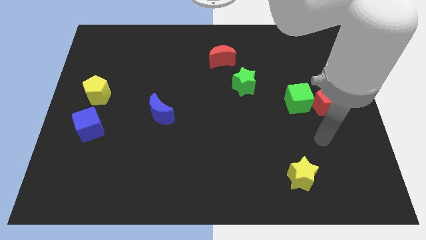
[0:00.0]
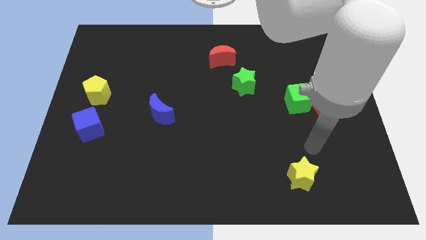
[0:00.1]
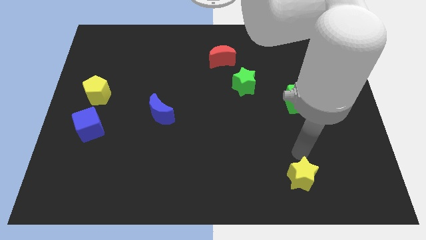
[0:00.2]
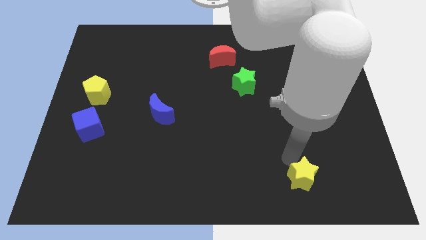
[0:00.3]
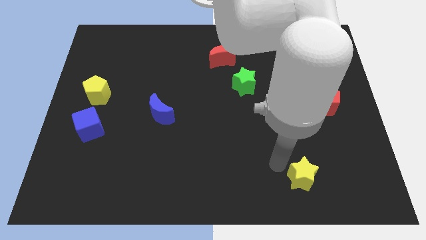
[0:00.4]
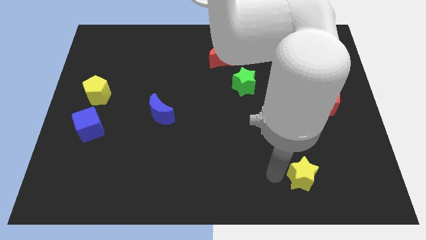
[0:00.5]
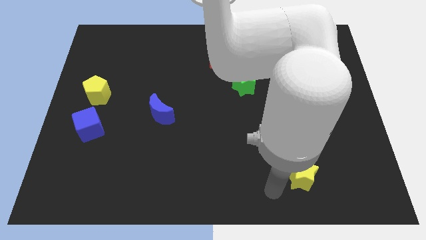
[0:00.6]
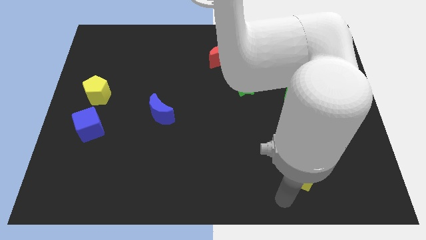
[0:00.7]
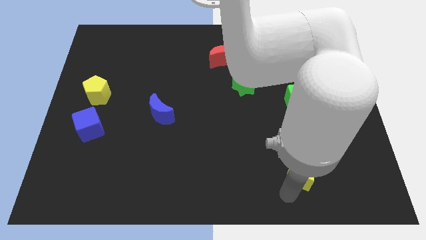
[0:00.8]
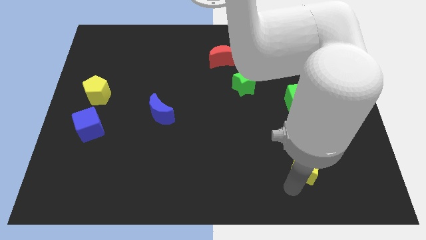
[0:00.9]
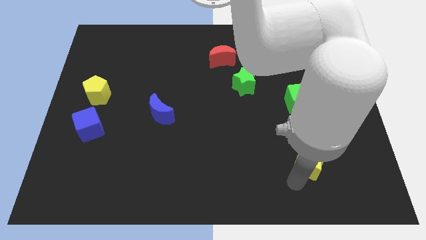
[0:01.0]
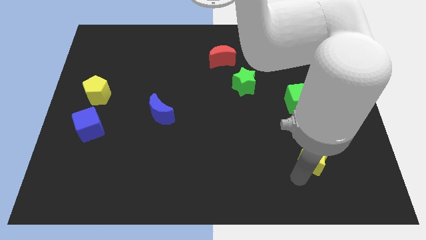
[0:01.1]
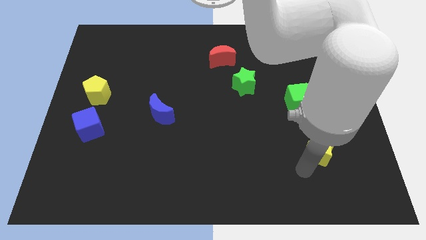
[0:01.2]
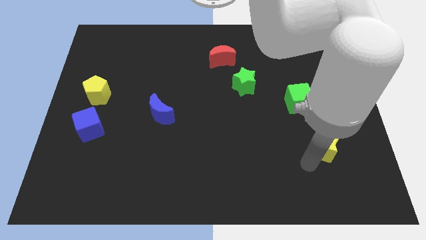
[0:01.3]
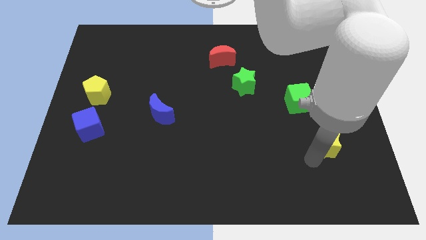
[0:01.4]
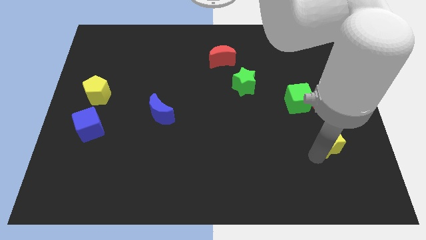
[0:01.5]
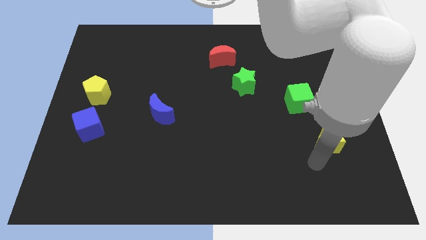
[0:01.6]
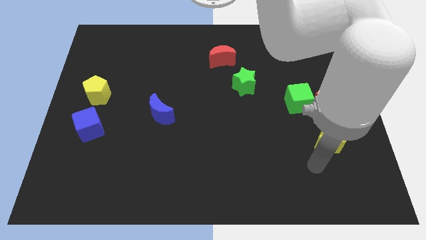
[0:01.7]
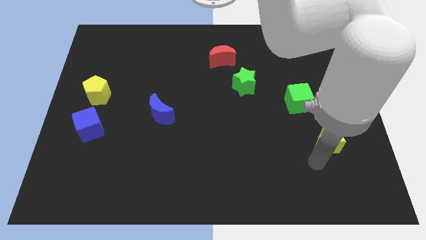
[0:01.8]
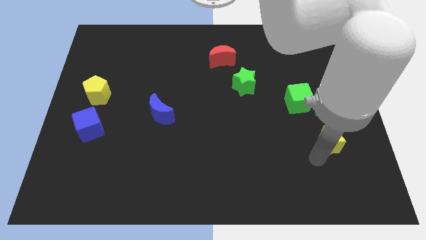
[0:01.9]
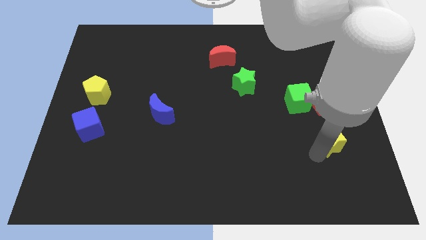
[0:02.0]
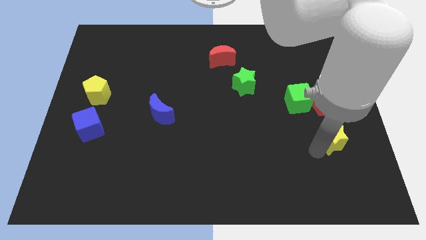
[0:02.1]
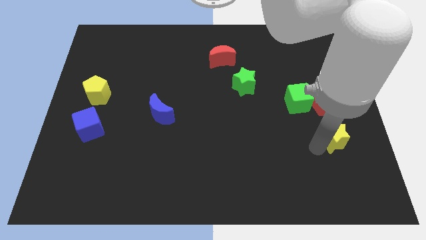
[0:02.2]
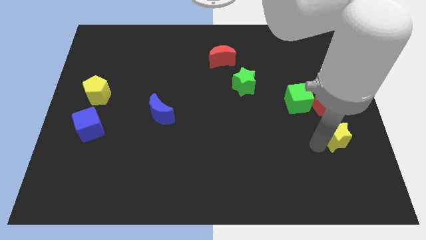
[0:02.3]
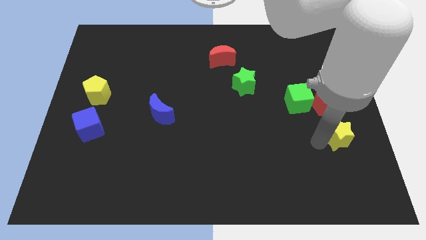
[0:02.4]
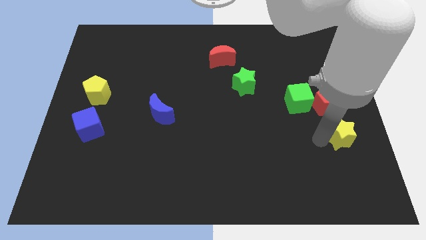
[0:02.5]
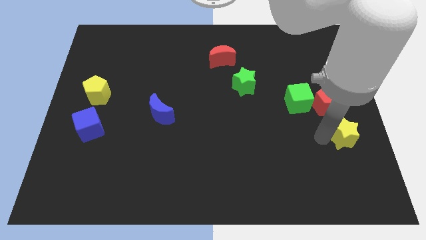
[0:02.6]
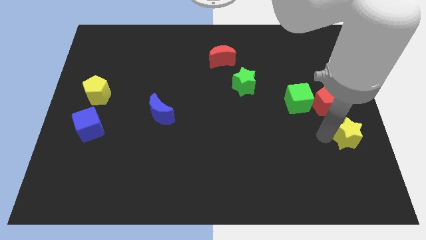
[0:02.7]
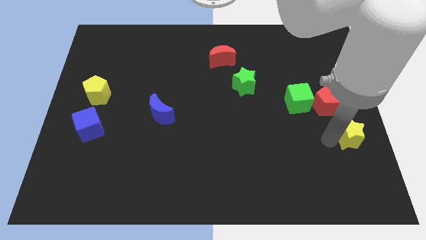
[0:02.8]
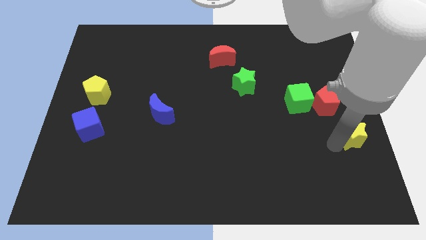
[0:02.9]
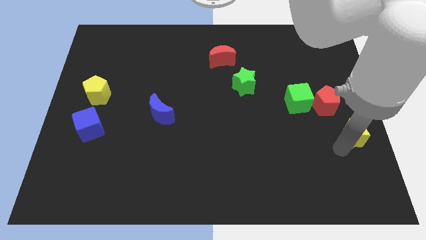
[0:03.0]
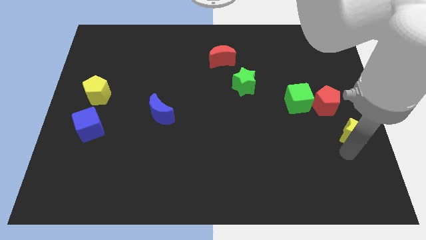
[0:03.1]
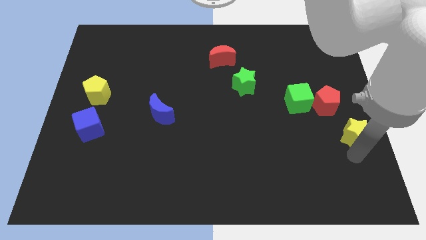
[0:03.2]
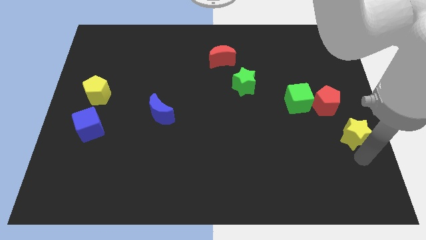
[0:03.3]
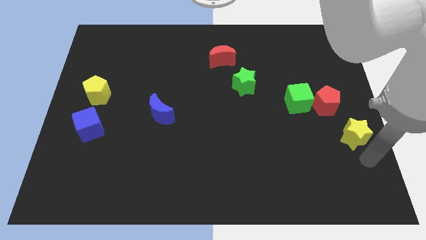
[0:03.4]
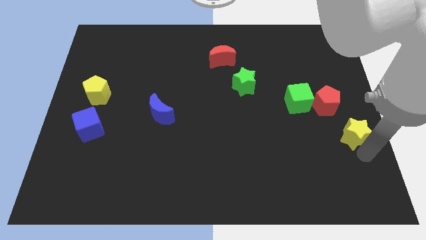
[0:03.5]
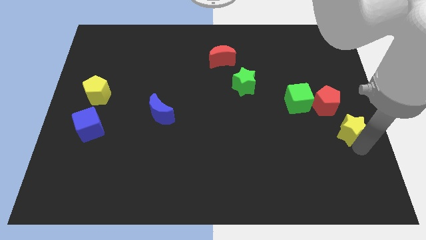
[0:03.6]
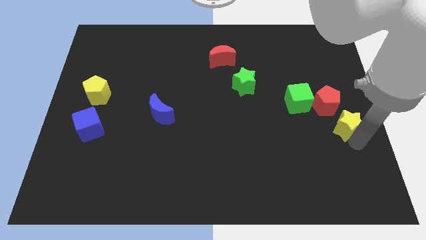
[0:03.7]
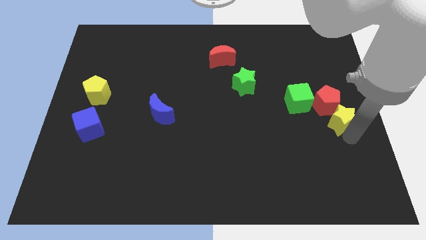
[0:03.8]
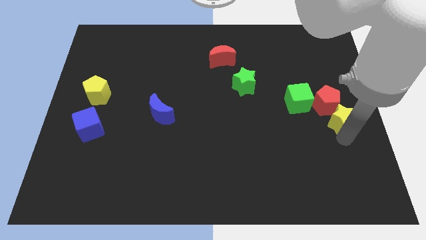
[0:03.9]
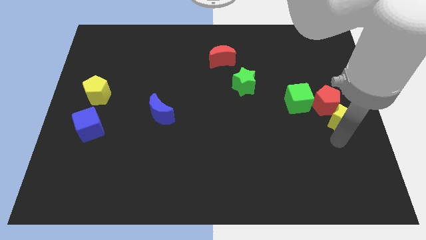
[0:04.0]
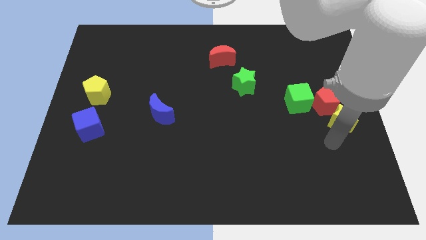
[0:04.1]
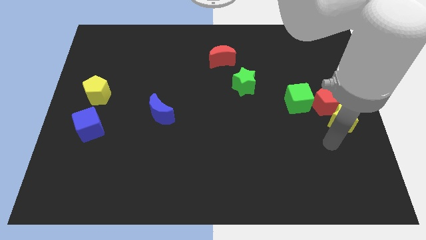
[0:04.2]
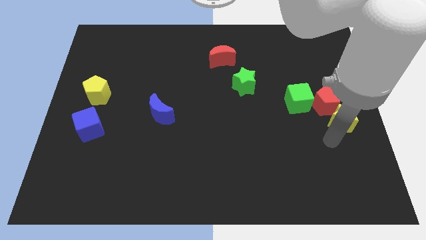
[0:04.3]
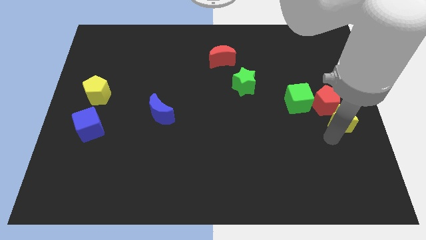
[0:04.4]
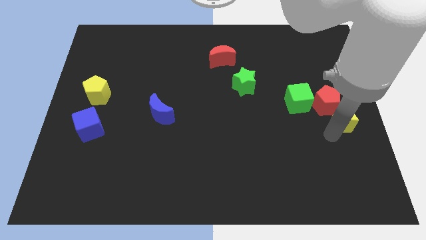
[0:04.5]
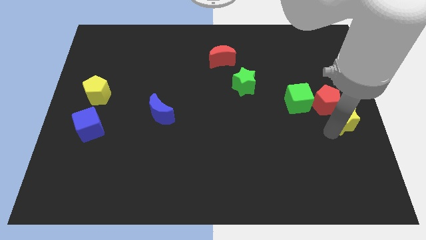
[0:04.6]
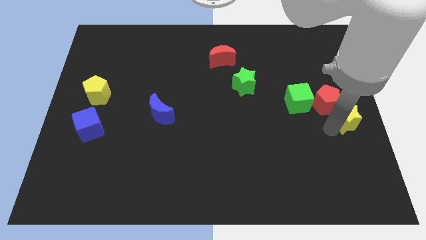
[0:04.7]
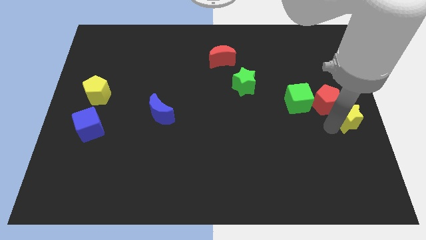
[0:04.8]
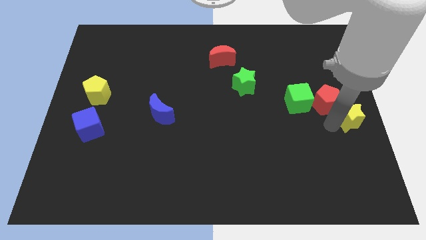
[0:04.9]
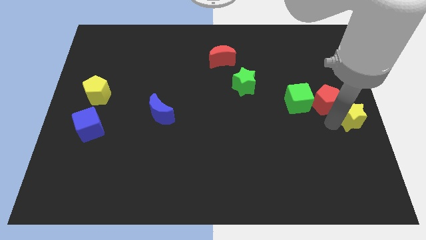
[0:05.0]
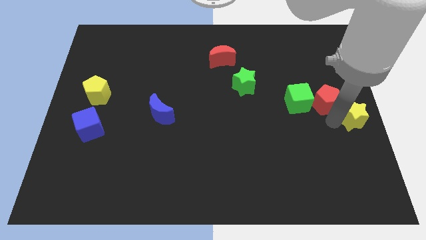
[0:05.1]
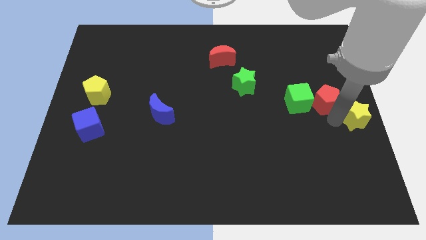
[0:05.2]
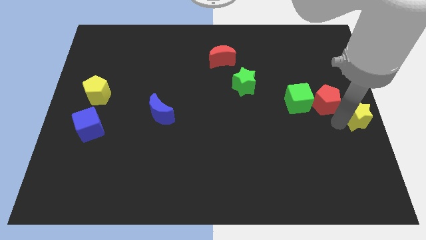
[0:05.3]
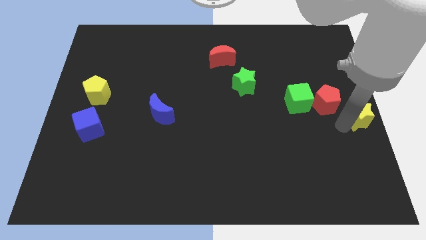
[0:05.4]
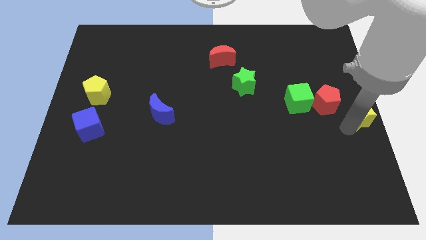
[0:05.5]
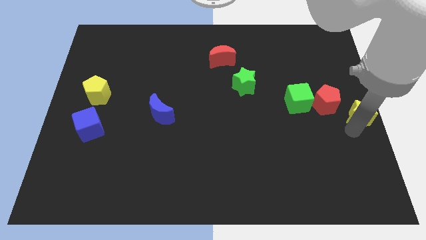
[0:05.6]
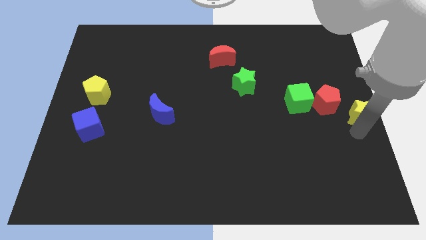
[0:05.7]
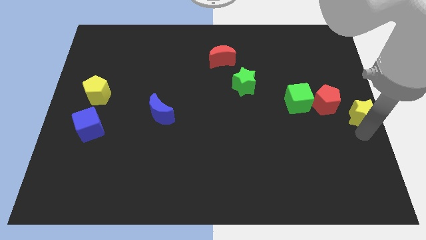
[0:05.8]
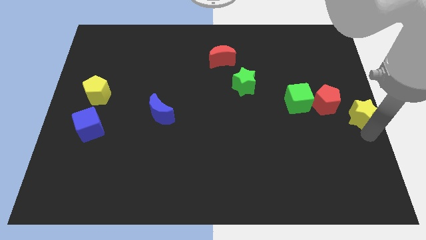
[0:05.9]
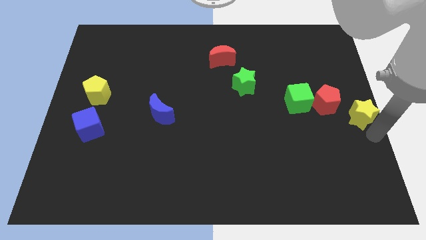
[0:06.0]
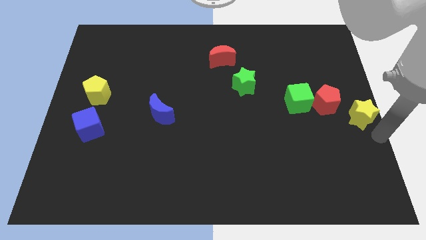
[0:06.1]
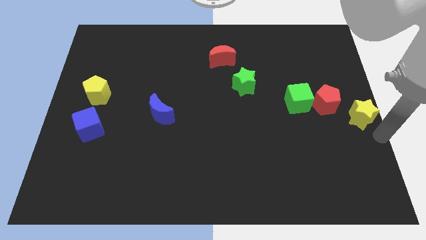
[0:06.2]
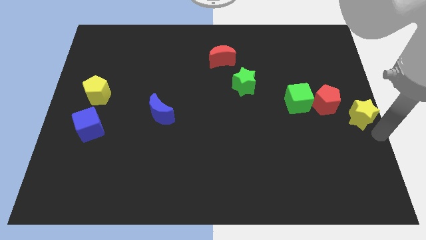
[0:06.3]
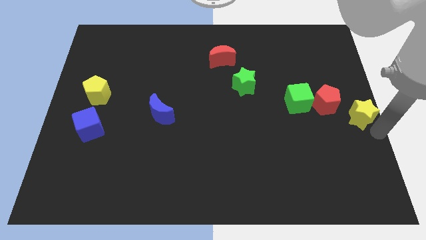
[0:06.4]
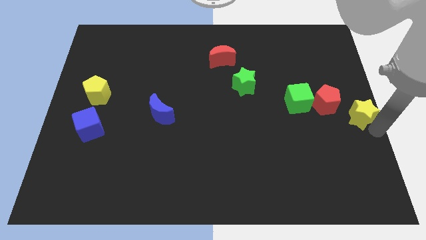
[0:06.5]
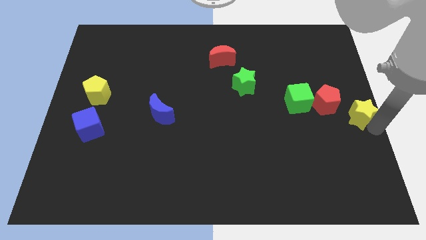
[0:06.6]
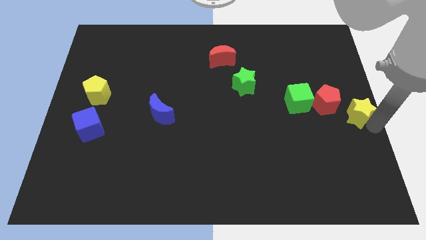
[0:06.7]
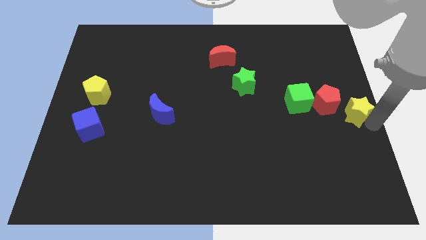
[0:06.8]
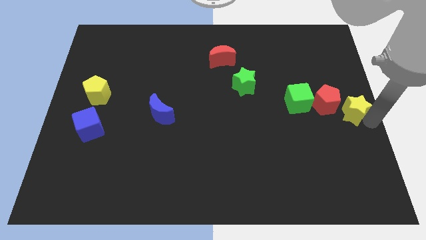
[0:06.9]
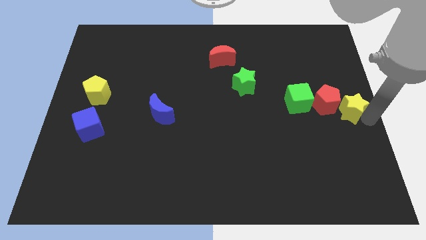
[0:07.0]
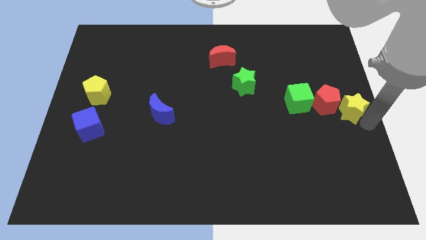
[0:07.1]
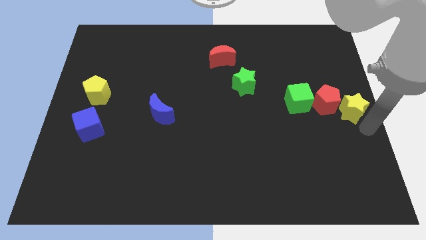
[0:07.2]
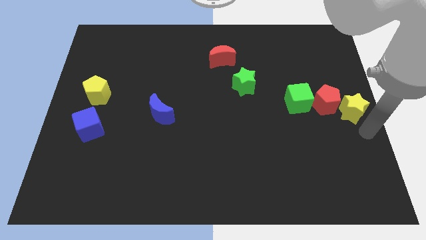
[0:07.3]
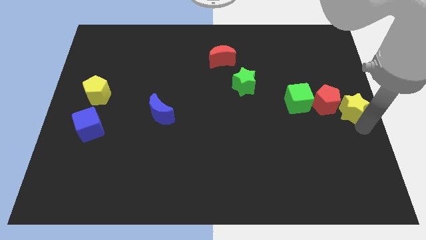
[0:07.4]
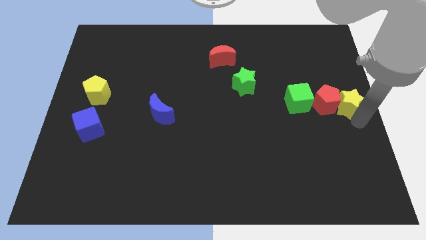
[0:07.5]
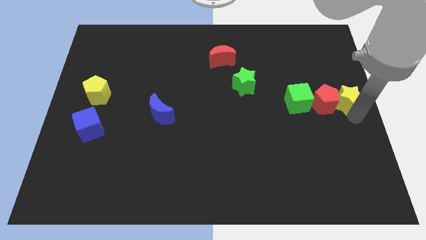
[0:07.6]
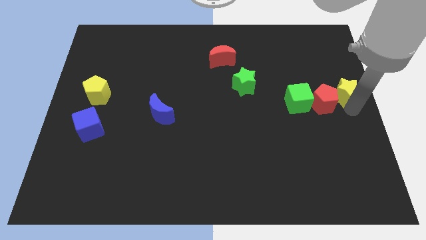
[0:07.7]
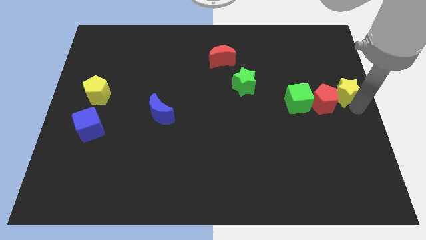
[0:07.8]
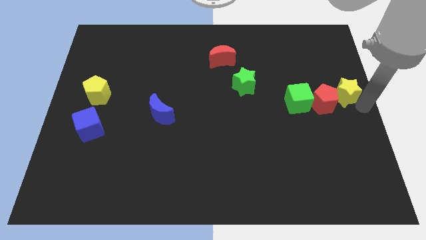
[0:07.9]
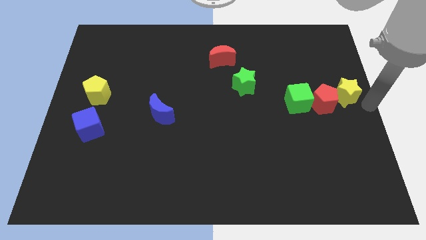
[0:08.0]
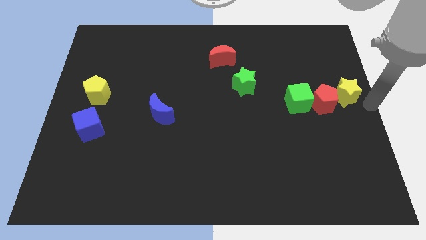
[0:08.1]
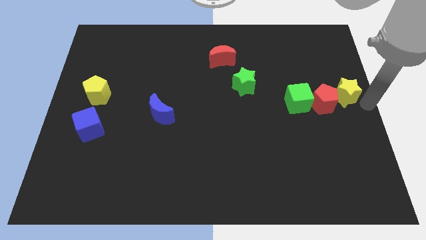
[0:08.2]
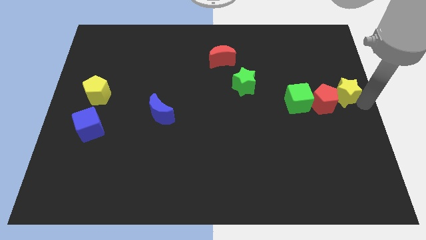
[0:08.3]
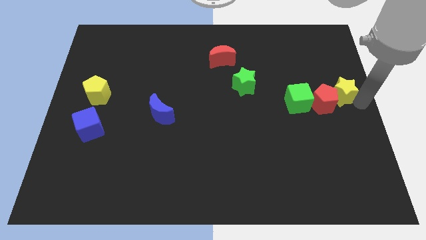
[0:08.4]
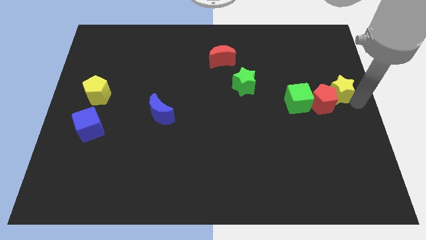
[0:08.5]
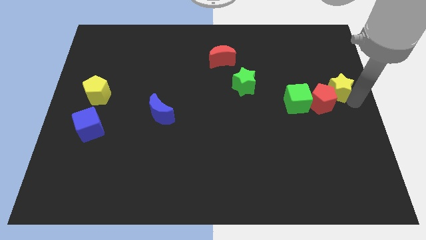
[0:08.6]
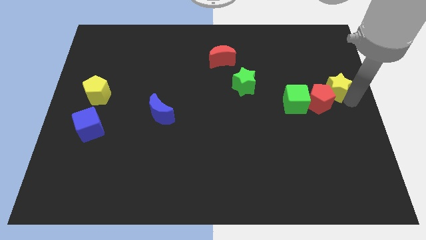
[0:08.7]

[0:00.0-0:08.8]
slide the yellow star to the top right of the green cube
